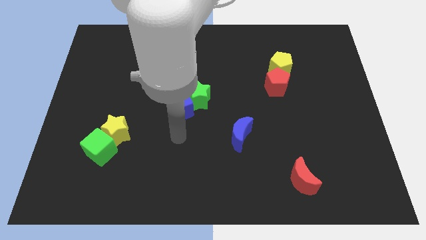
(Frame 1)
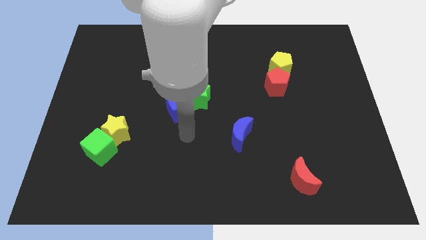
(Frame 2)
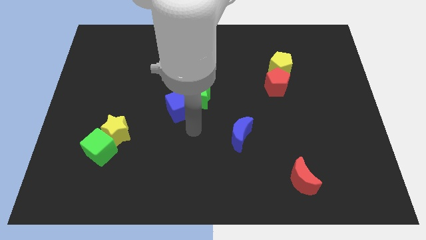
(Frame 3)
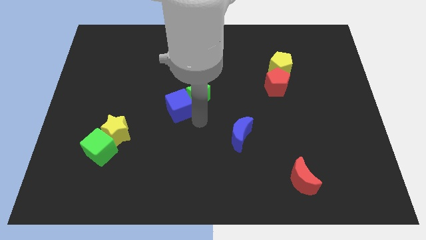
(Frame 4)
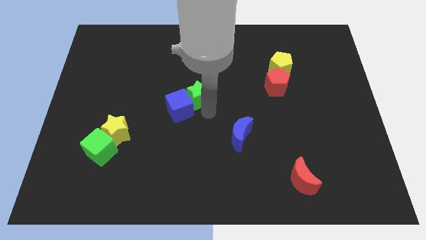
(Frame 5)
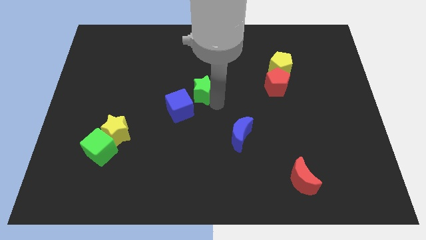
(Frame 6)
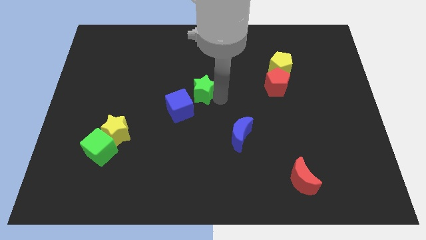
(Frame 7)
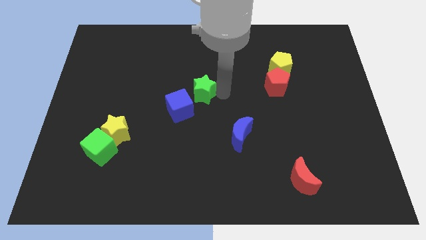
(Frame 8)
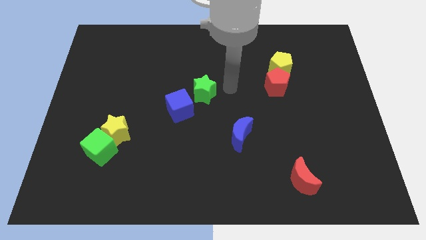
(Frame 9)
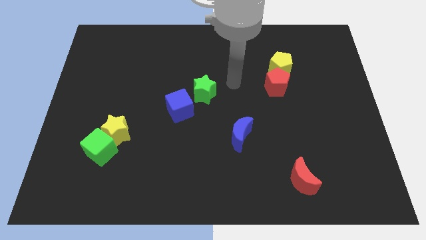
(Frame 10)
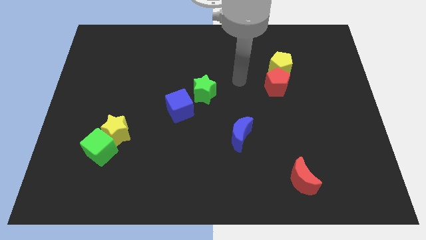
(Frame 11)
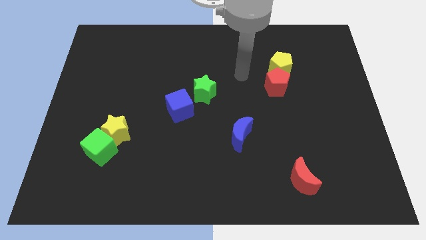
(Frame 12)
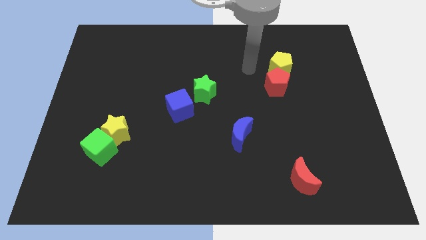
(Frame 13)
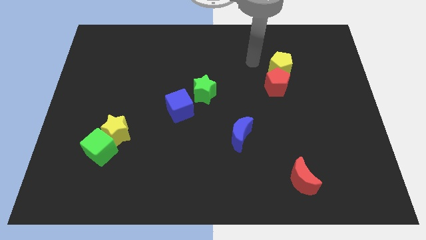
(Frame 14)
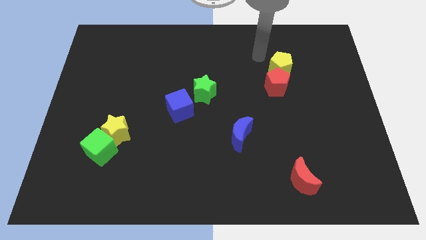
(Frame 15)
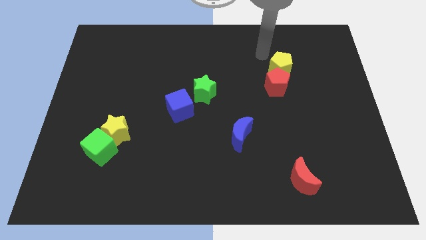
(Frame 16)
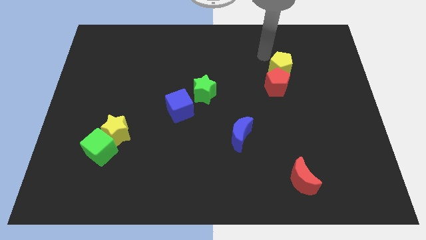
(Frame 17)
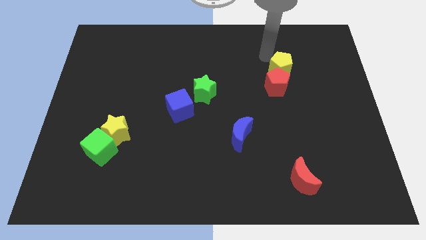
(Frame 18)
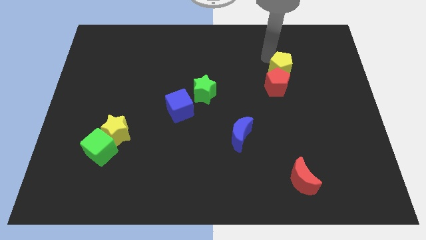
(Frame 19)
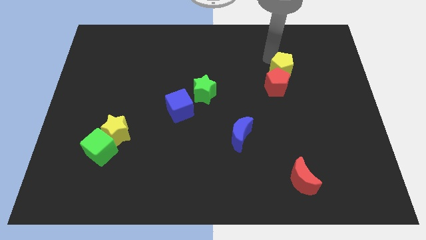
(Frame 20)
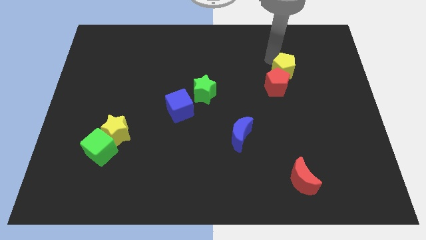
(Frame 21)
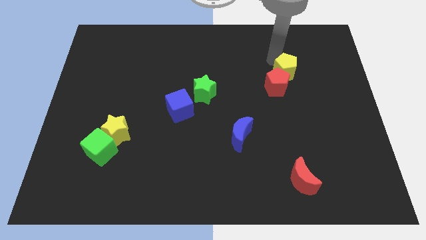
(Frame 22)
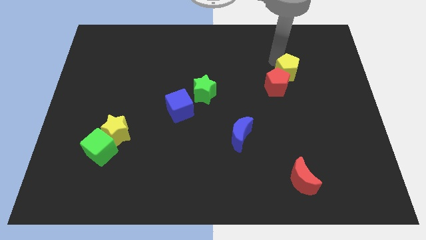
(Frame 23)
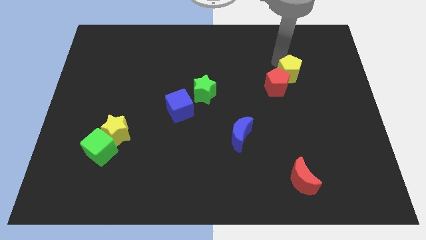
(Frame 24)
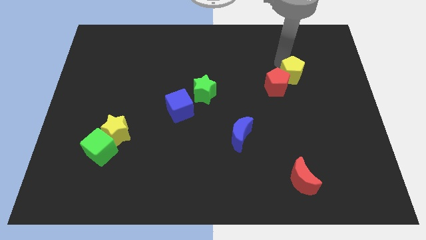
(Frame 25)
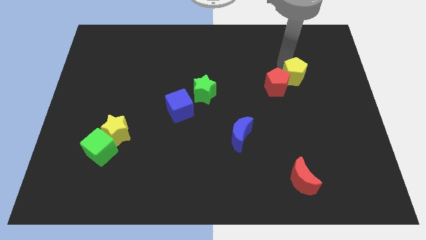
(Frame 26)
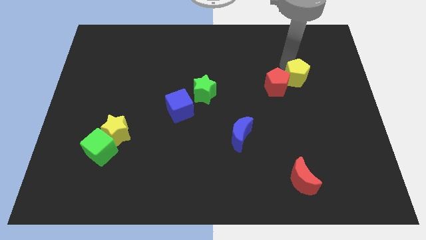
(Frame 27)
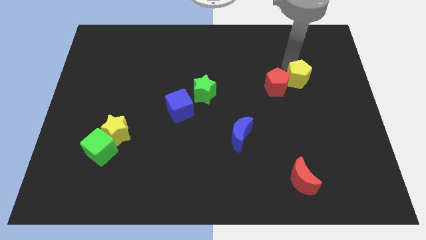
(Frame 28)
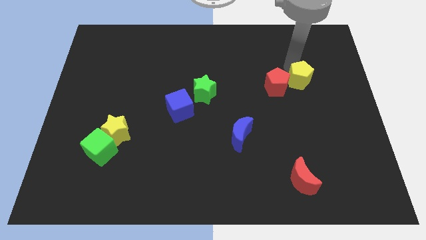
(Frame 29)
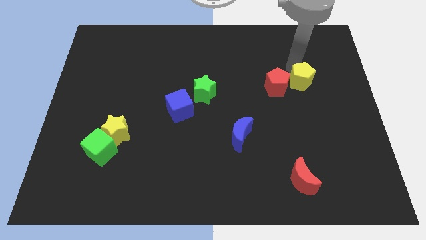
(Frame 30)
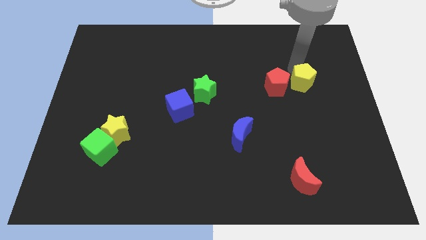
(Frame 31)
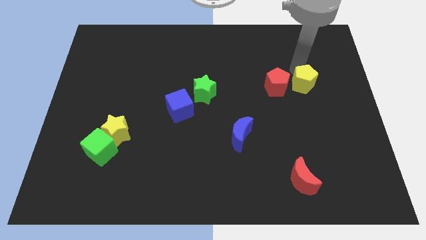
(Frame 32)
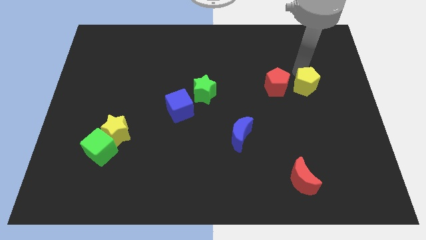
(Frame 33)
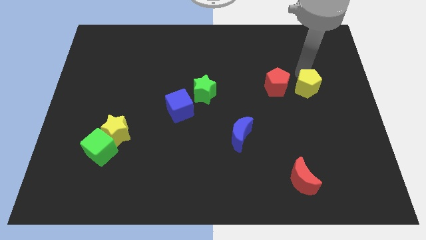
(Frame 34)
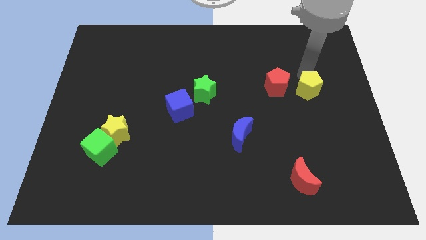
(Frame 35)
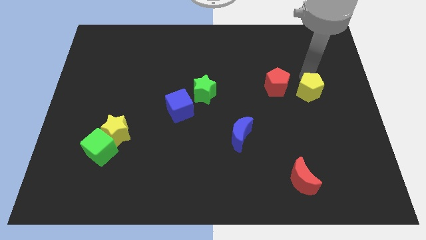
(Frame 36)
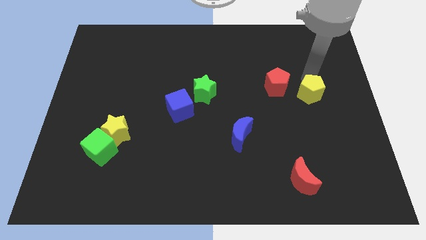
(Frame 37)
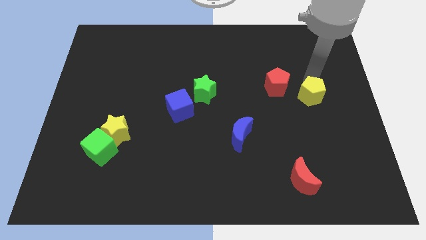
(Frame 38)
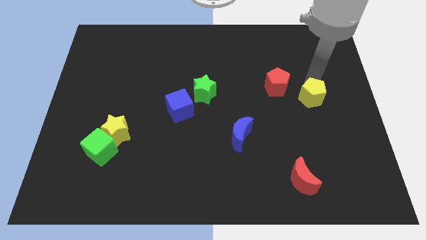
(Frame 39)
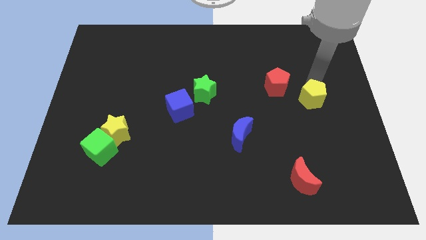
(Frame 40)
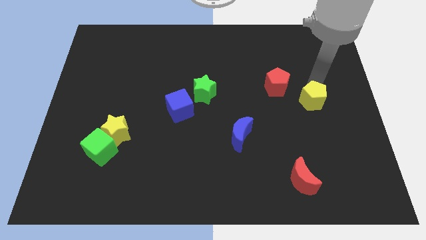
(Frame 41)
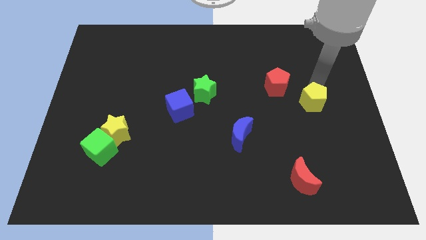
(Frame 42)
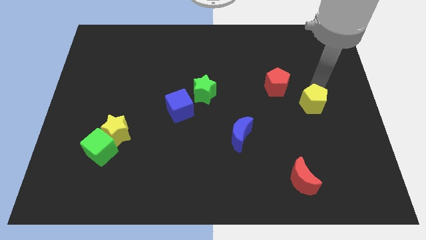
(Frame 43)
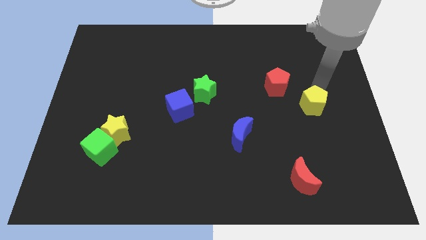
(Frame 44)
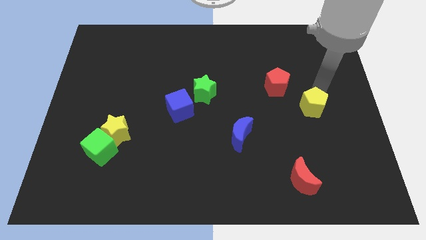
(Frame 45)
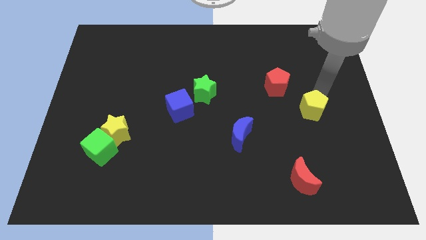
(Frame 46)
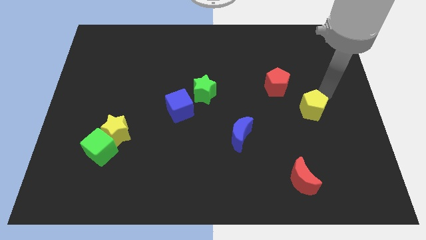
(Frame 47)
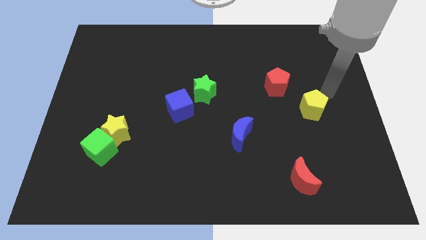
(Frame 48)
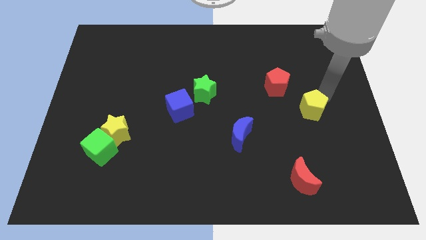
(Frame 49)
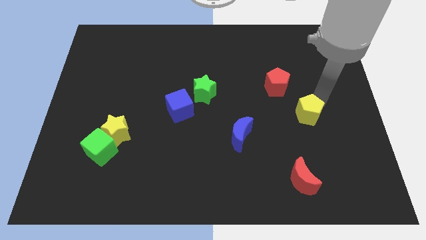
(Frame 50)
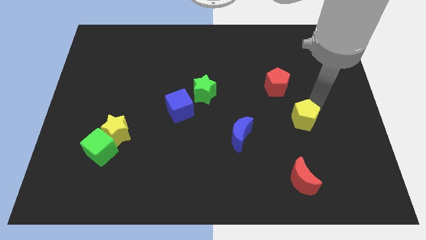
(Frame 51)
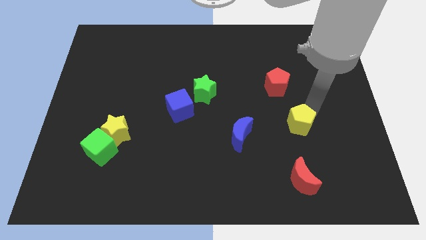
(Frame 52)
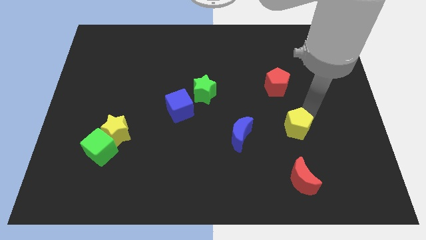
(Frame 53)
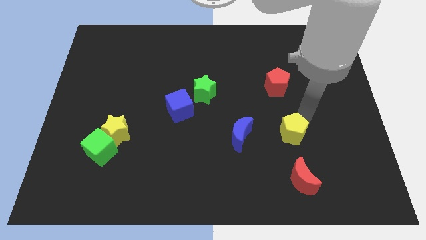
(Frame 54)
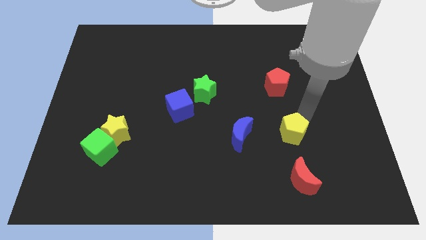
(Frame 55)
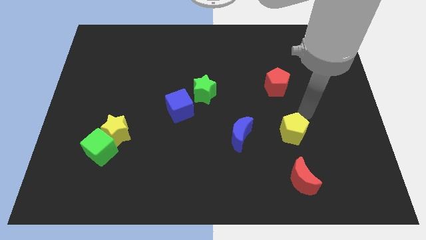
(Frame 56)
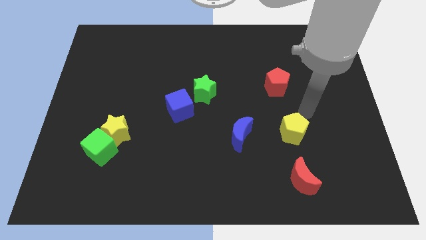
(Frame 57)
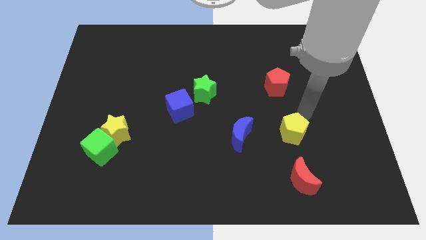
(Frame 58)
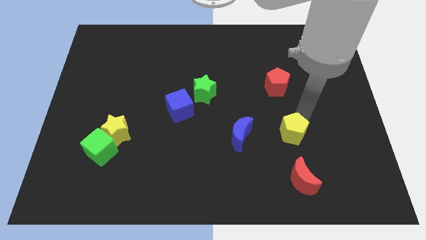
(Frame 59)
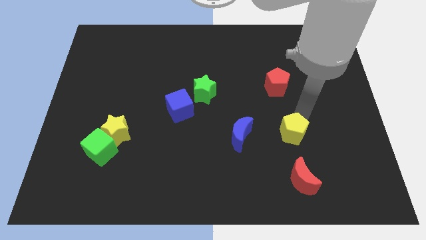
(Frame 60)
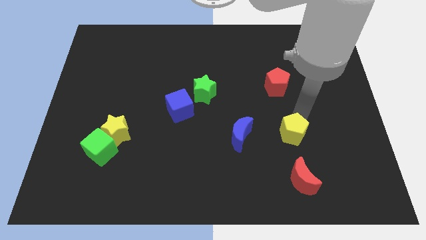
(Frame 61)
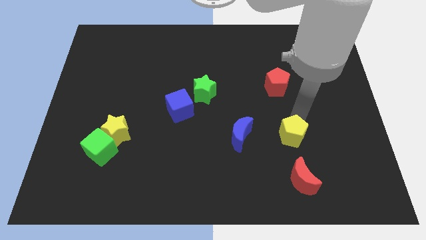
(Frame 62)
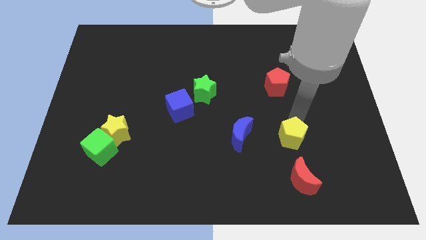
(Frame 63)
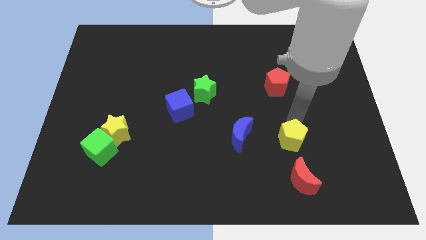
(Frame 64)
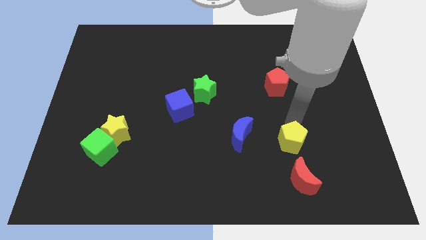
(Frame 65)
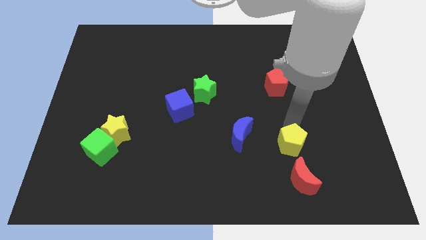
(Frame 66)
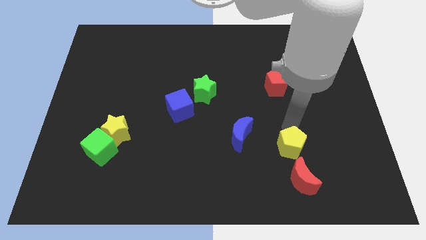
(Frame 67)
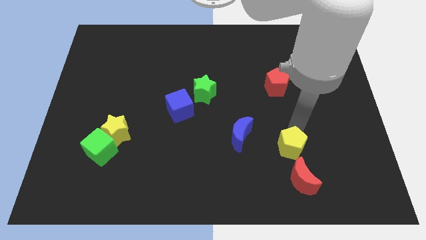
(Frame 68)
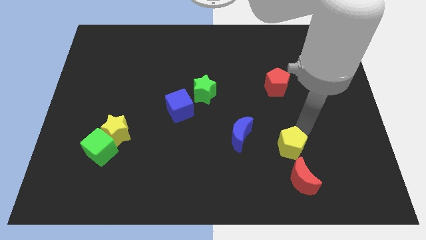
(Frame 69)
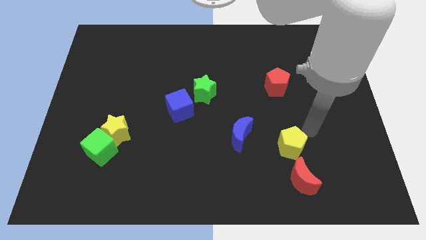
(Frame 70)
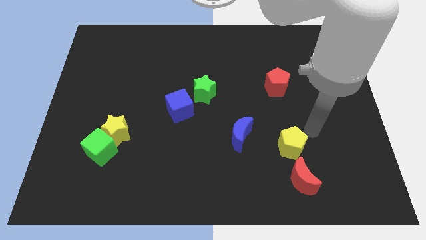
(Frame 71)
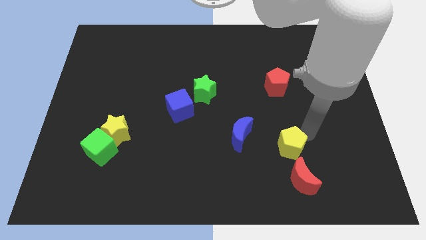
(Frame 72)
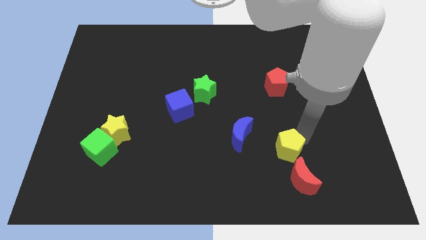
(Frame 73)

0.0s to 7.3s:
push the yellow pentagon to the top left of the red moon

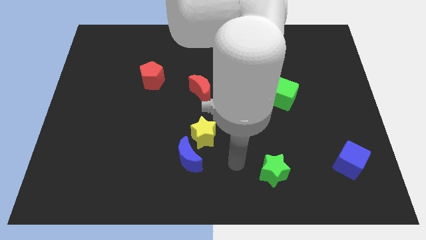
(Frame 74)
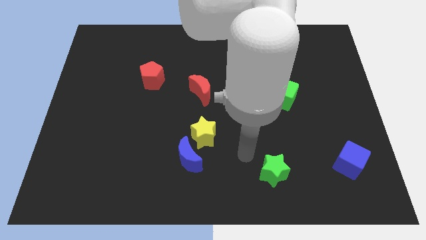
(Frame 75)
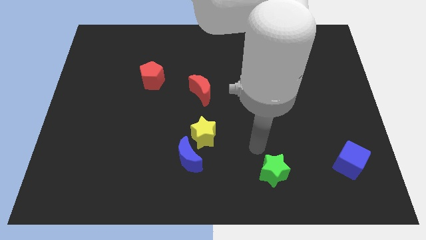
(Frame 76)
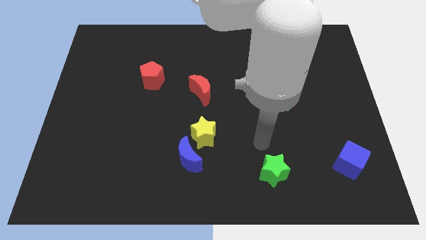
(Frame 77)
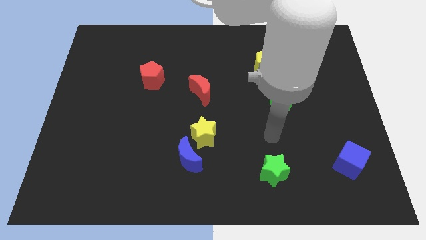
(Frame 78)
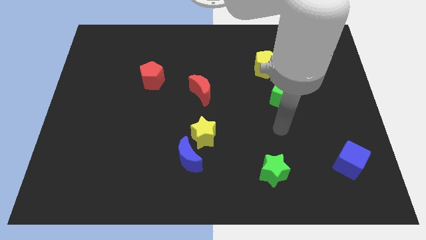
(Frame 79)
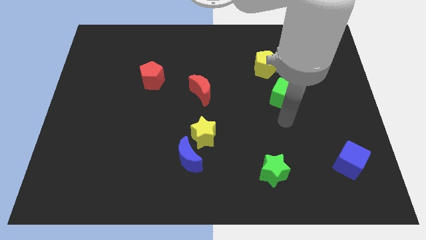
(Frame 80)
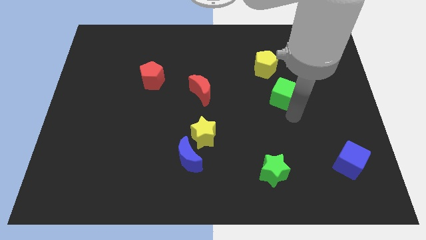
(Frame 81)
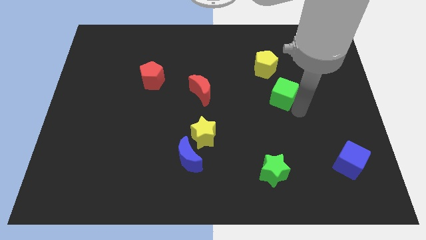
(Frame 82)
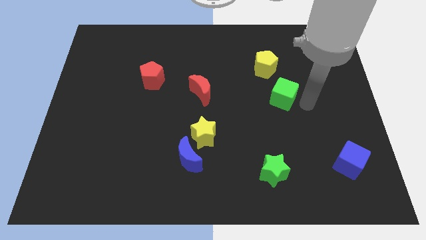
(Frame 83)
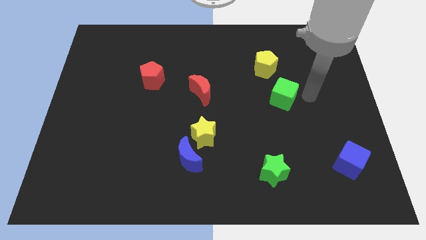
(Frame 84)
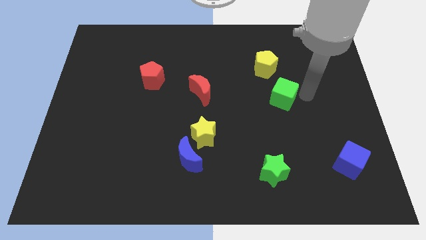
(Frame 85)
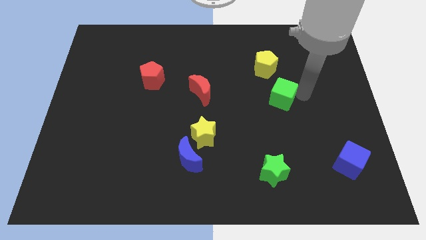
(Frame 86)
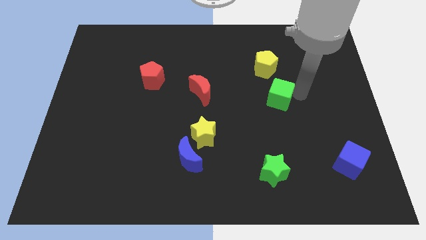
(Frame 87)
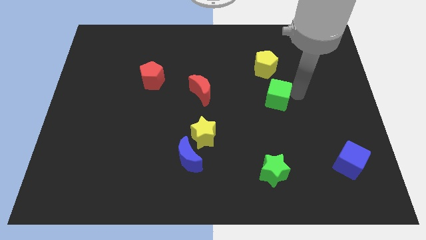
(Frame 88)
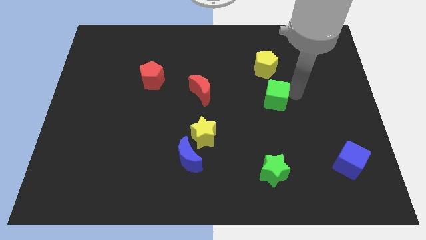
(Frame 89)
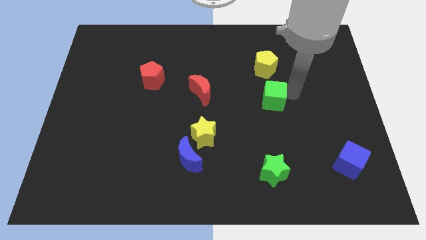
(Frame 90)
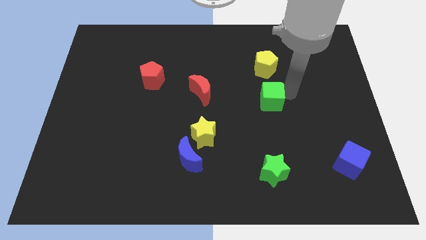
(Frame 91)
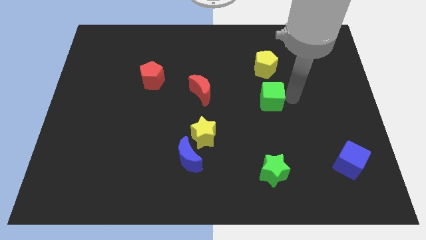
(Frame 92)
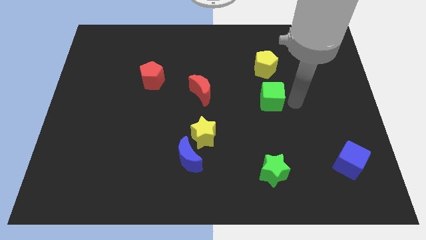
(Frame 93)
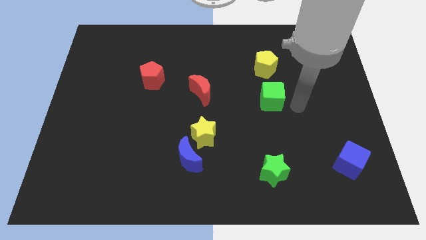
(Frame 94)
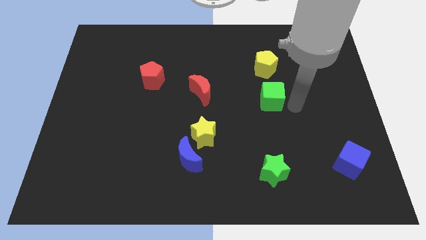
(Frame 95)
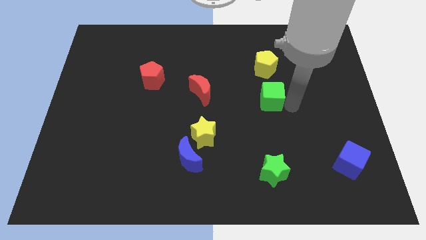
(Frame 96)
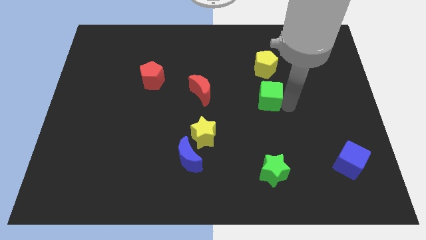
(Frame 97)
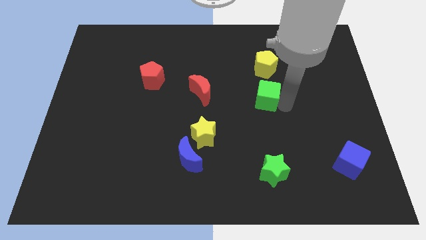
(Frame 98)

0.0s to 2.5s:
push the green cube right of the red moon
